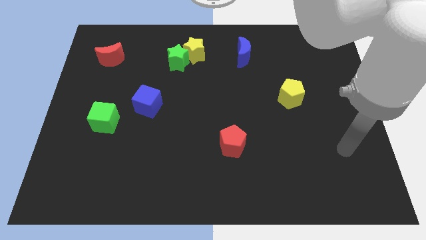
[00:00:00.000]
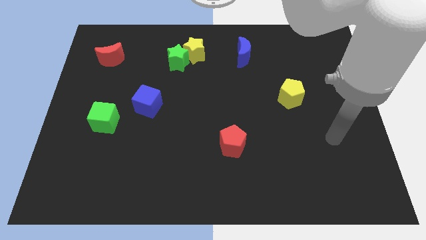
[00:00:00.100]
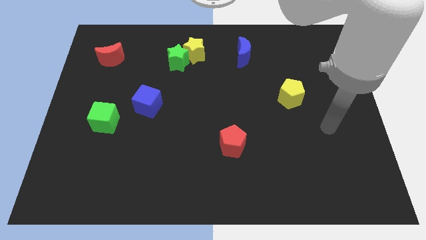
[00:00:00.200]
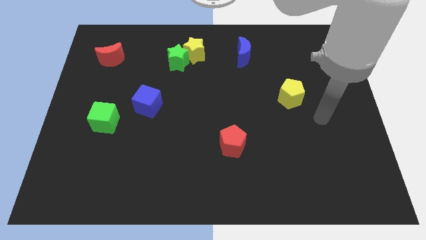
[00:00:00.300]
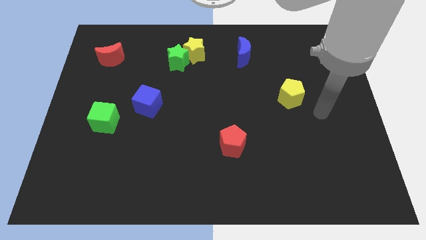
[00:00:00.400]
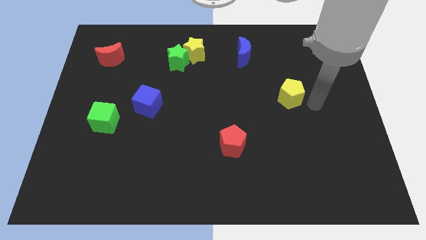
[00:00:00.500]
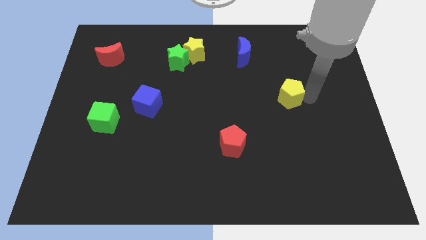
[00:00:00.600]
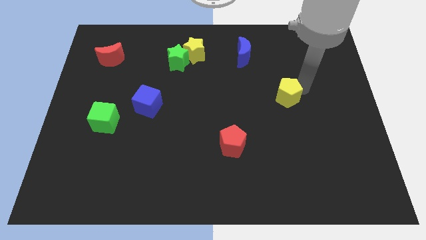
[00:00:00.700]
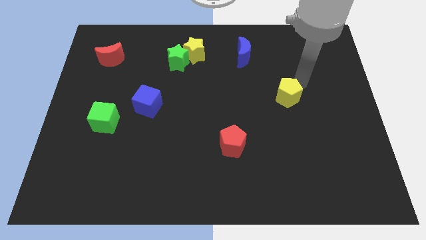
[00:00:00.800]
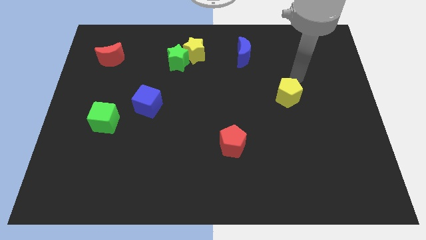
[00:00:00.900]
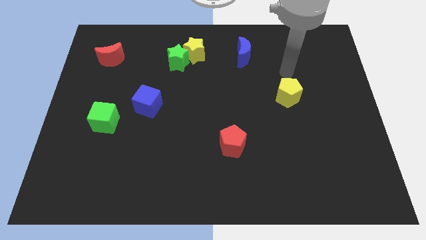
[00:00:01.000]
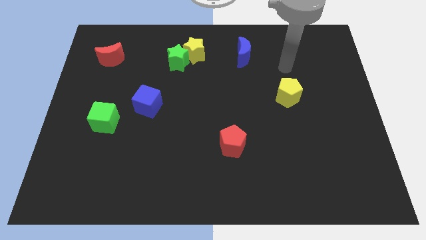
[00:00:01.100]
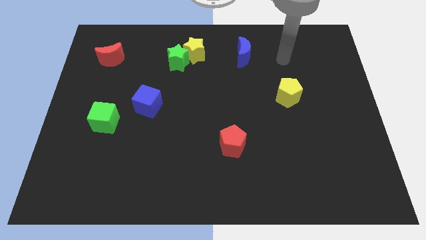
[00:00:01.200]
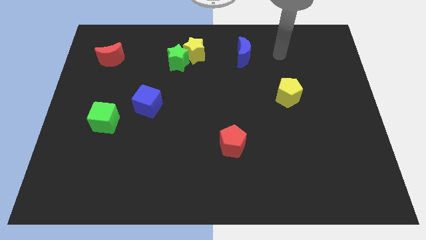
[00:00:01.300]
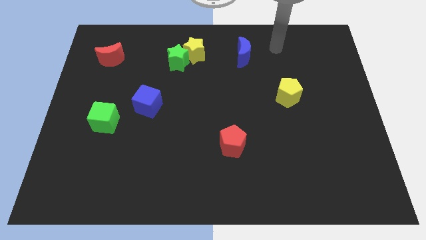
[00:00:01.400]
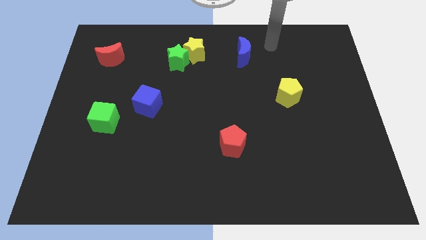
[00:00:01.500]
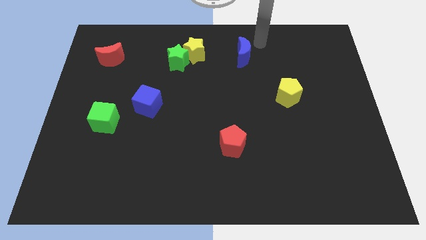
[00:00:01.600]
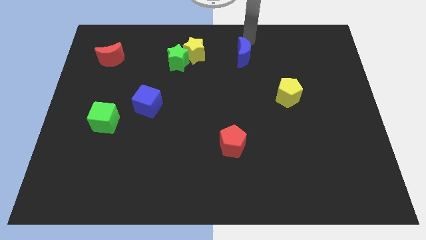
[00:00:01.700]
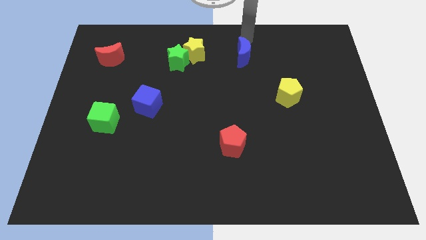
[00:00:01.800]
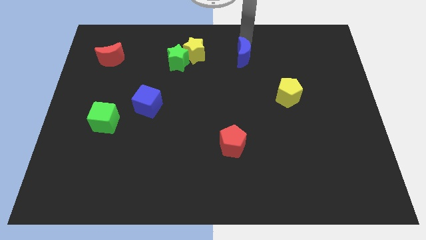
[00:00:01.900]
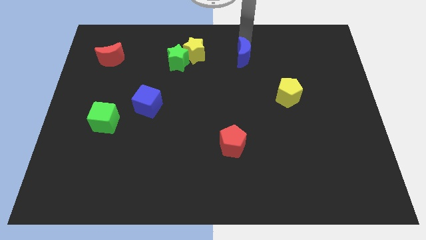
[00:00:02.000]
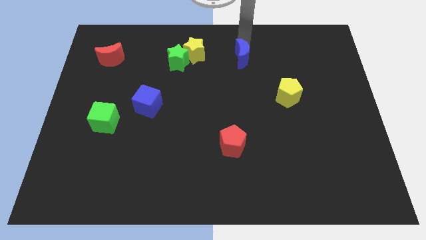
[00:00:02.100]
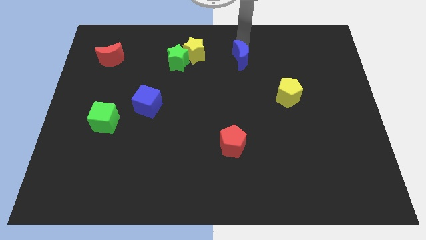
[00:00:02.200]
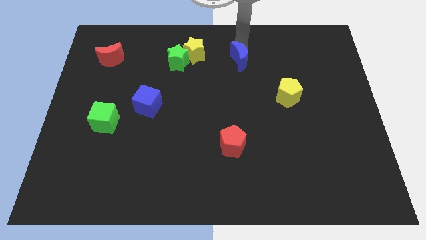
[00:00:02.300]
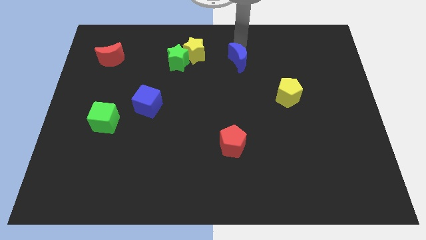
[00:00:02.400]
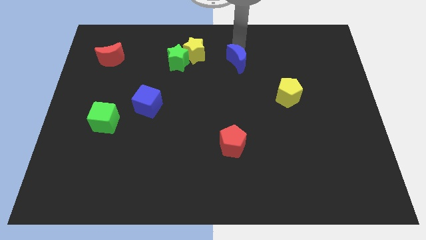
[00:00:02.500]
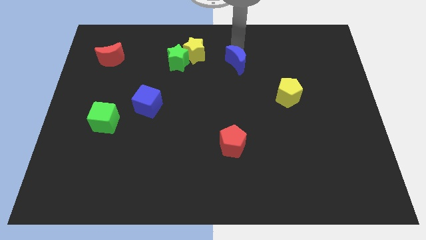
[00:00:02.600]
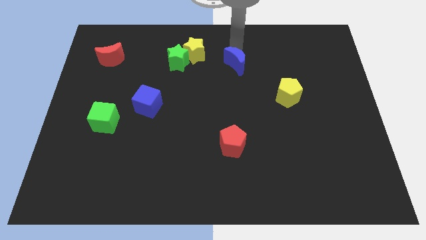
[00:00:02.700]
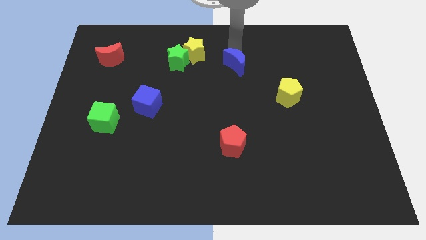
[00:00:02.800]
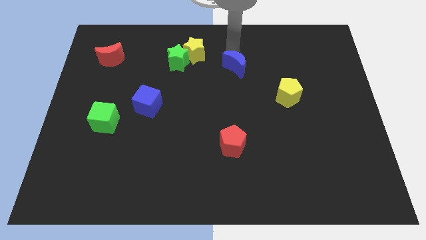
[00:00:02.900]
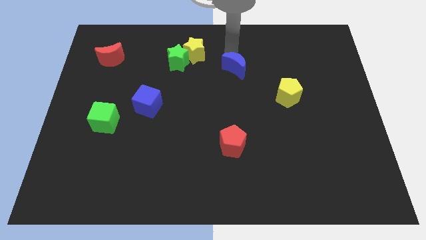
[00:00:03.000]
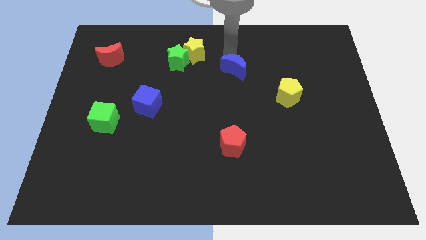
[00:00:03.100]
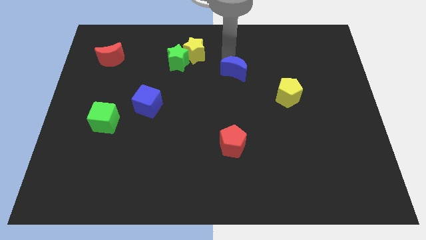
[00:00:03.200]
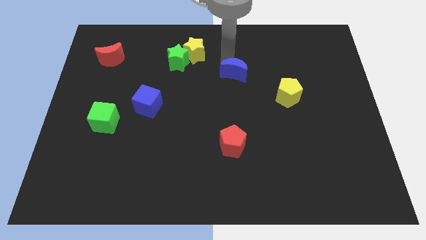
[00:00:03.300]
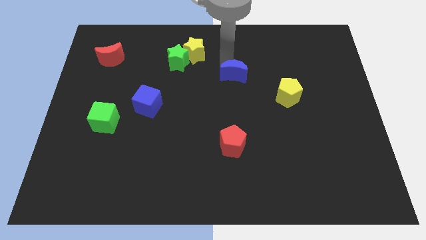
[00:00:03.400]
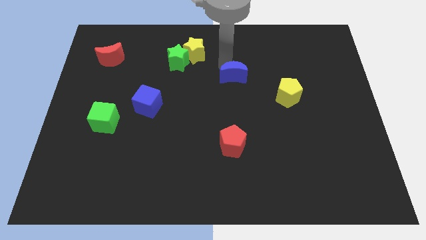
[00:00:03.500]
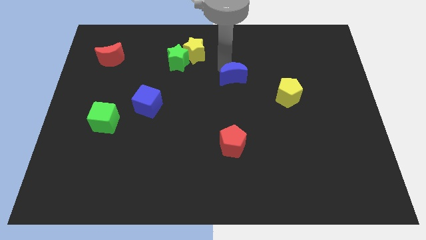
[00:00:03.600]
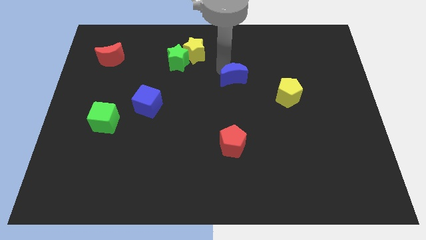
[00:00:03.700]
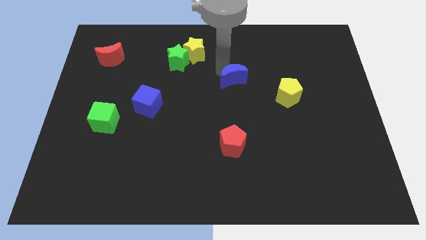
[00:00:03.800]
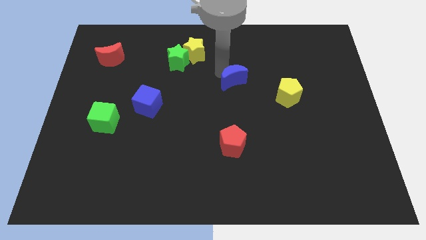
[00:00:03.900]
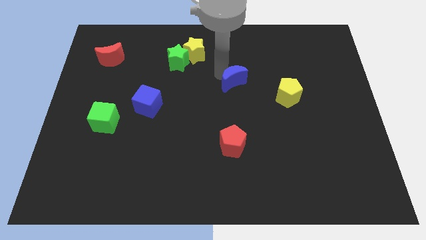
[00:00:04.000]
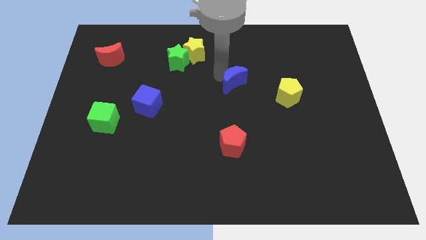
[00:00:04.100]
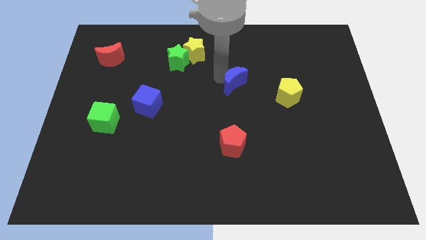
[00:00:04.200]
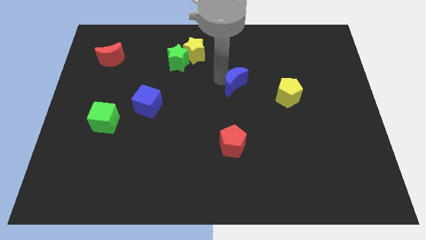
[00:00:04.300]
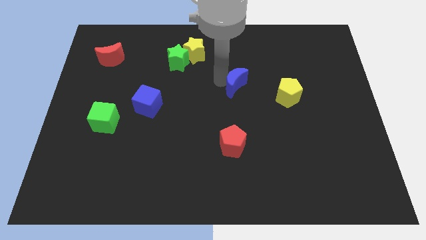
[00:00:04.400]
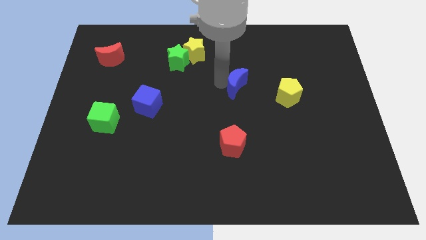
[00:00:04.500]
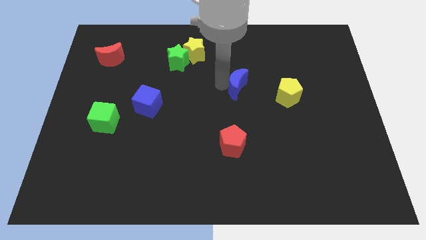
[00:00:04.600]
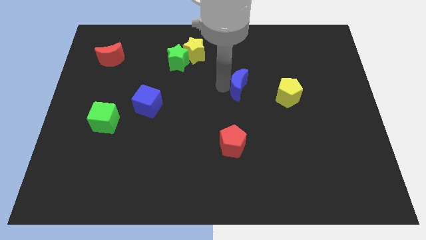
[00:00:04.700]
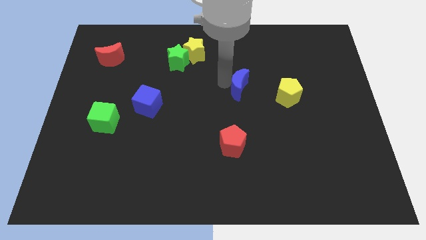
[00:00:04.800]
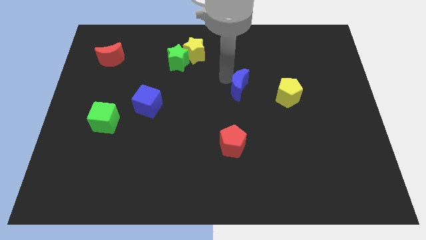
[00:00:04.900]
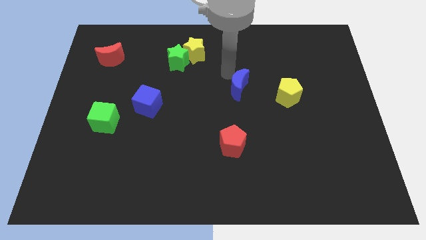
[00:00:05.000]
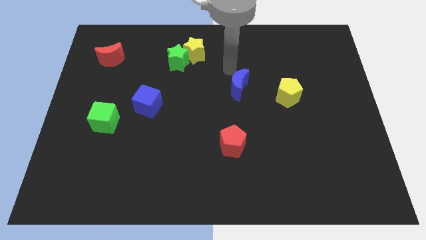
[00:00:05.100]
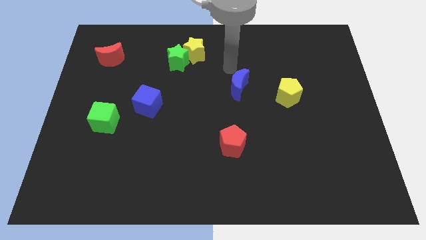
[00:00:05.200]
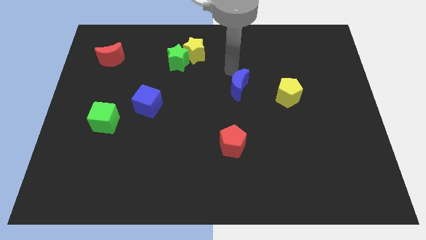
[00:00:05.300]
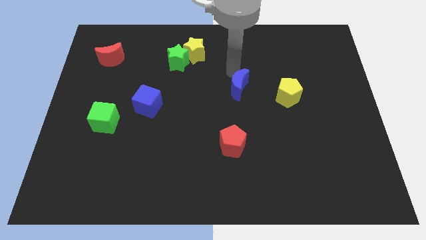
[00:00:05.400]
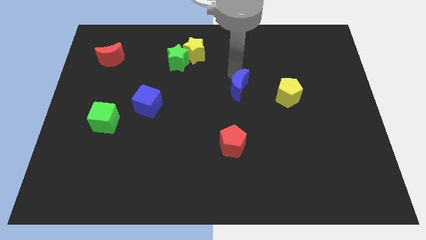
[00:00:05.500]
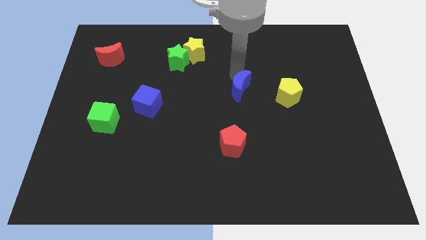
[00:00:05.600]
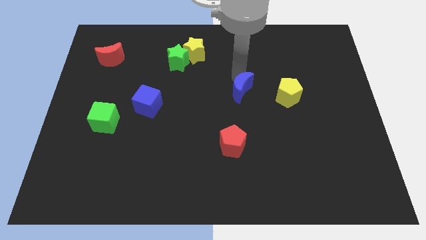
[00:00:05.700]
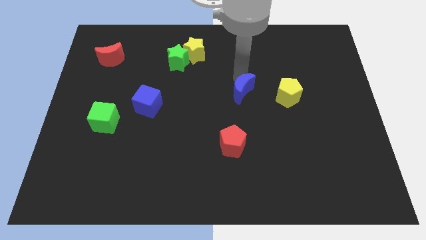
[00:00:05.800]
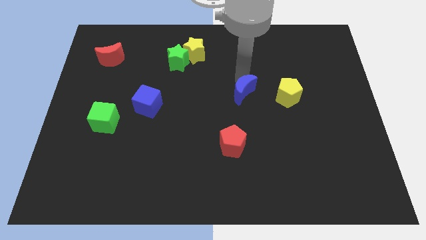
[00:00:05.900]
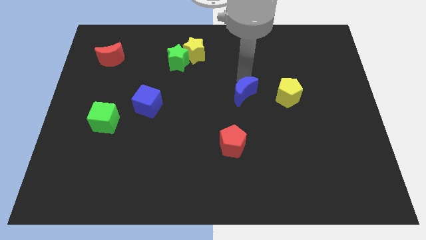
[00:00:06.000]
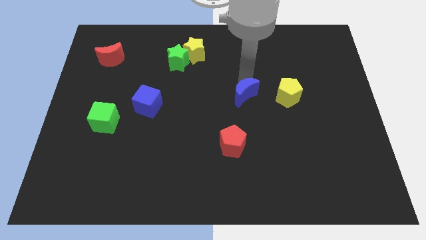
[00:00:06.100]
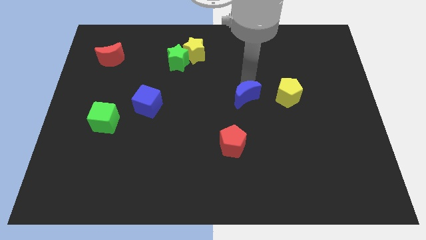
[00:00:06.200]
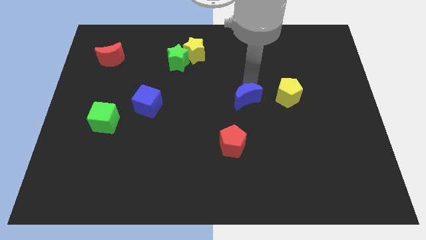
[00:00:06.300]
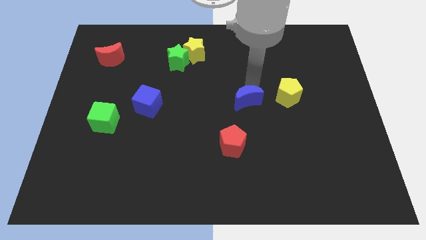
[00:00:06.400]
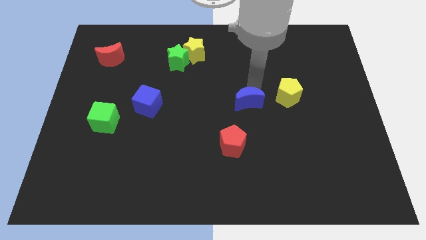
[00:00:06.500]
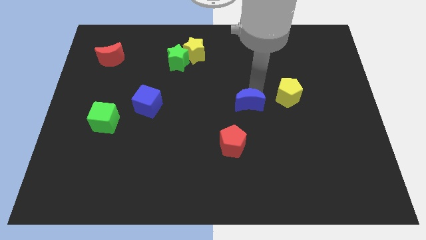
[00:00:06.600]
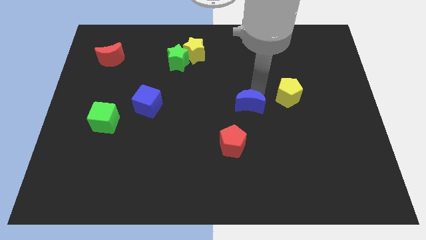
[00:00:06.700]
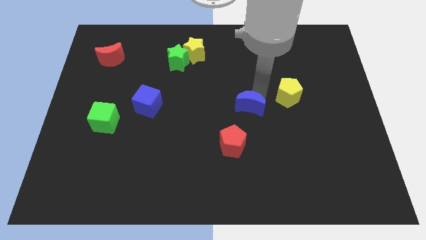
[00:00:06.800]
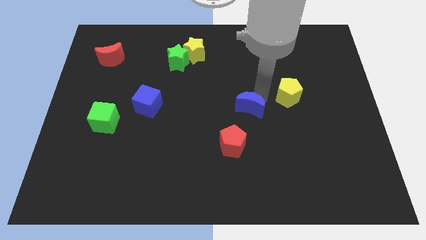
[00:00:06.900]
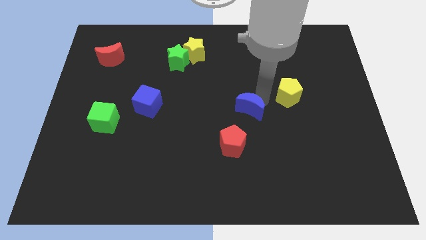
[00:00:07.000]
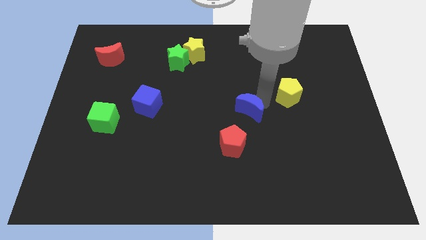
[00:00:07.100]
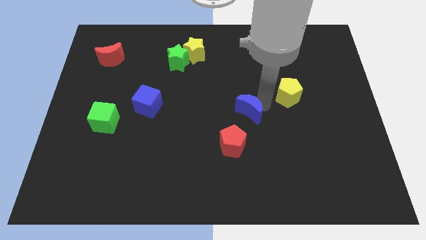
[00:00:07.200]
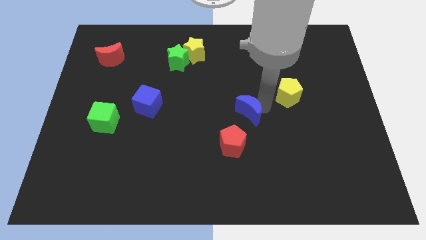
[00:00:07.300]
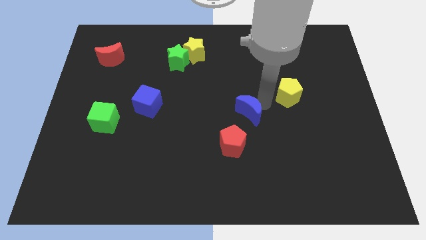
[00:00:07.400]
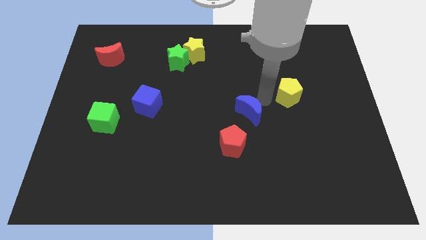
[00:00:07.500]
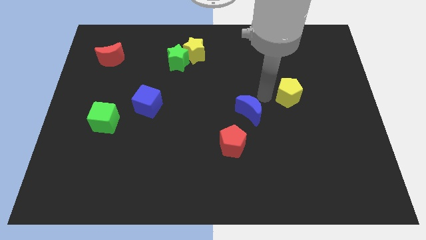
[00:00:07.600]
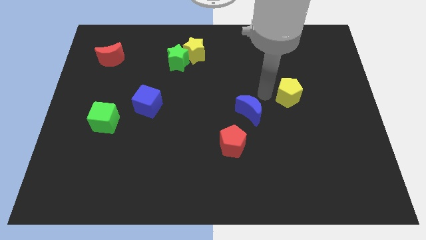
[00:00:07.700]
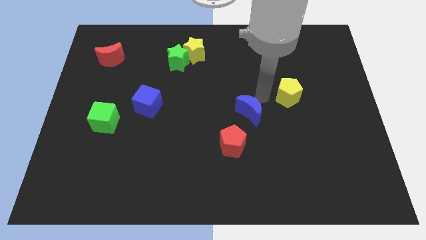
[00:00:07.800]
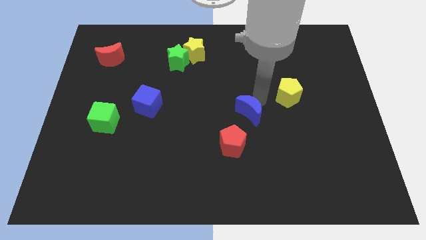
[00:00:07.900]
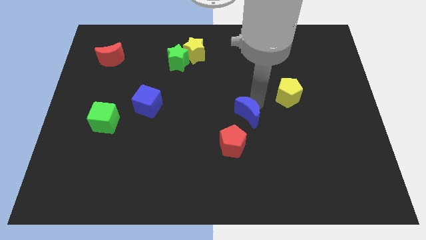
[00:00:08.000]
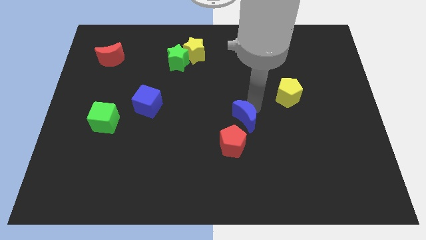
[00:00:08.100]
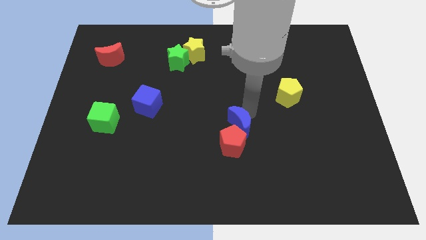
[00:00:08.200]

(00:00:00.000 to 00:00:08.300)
push the blue moon to the red pentagon
